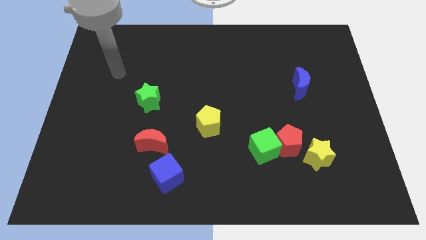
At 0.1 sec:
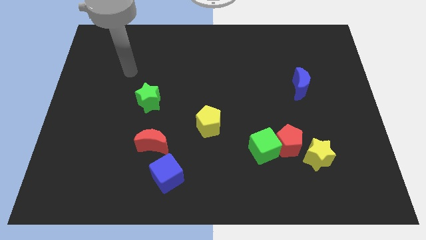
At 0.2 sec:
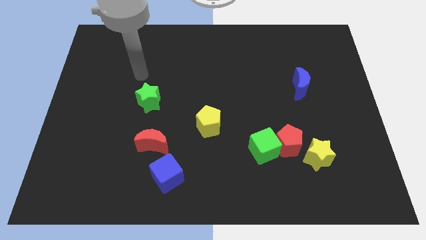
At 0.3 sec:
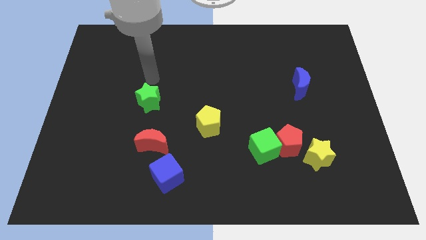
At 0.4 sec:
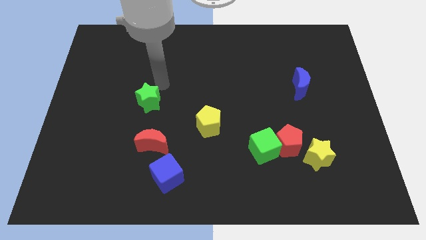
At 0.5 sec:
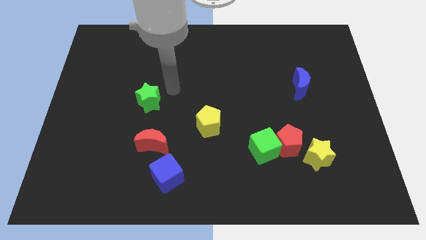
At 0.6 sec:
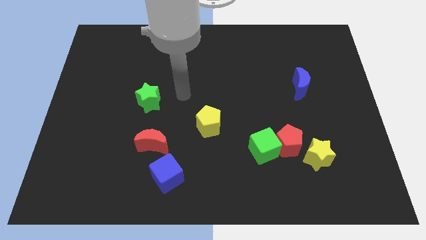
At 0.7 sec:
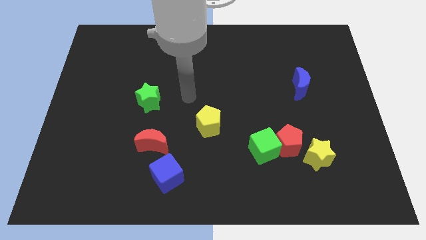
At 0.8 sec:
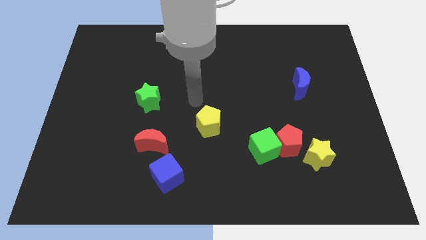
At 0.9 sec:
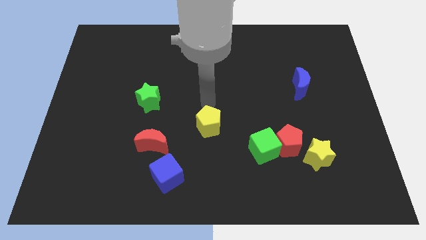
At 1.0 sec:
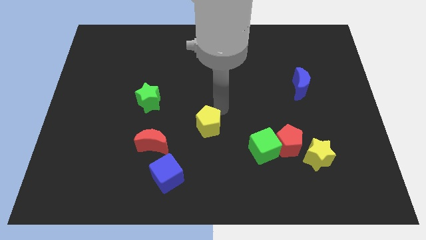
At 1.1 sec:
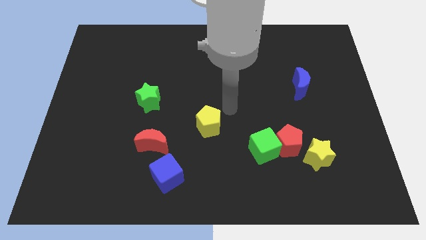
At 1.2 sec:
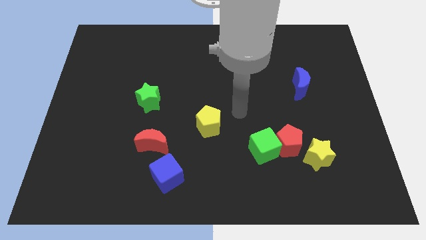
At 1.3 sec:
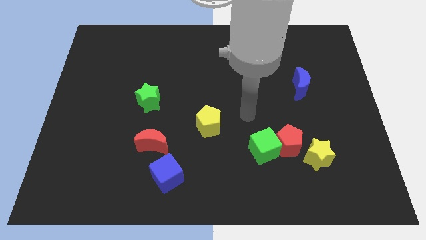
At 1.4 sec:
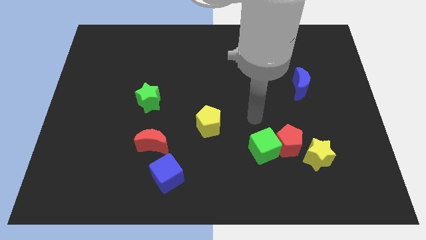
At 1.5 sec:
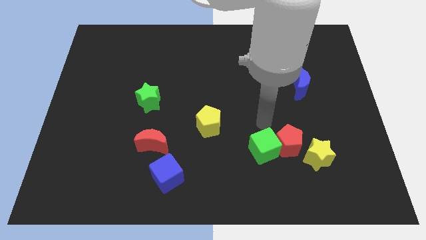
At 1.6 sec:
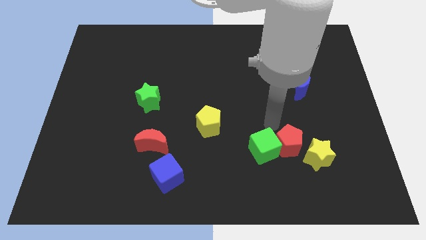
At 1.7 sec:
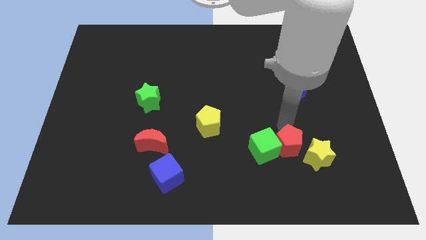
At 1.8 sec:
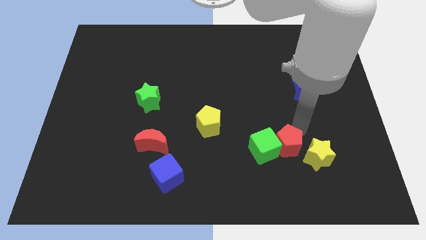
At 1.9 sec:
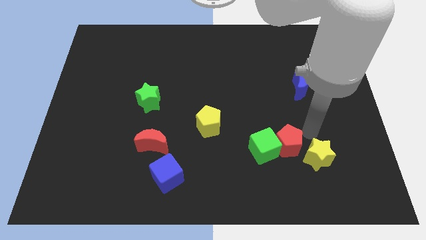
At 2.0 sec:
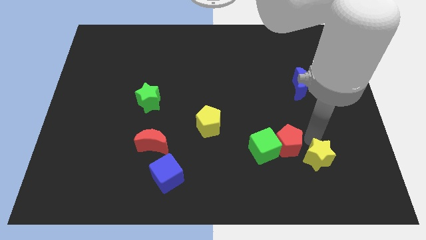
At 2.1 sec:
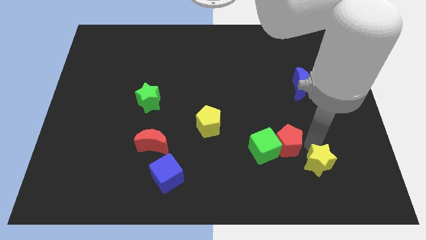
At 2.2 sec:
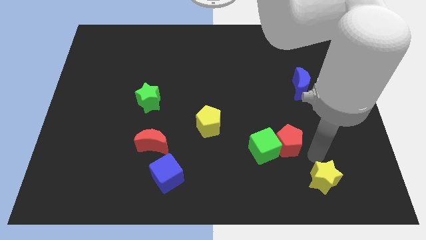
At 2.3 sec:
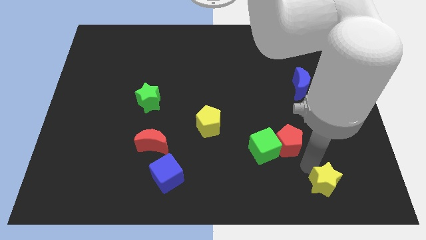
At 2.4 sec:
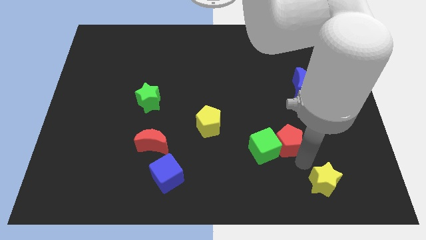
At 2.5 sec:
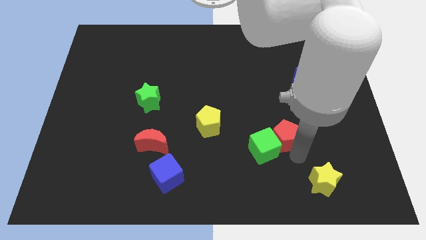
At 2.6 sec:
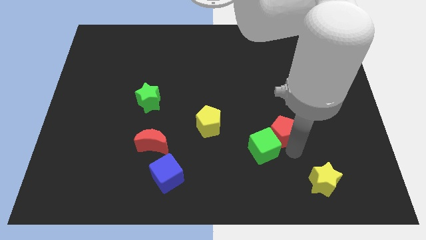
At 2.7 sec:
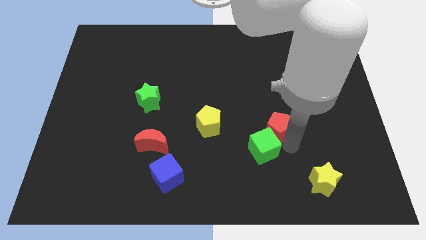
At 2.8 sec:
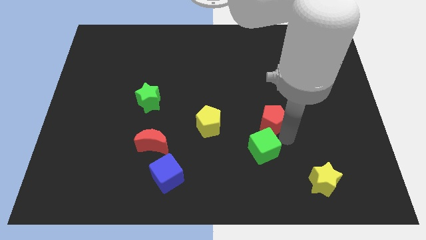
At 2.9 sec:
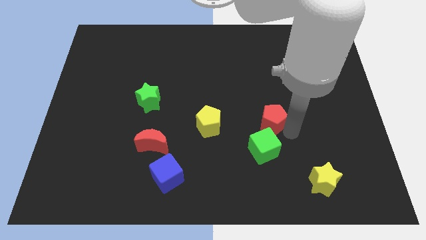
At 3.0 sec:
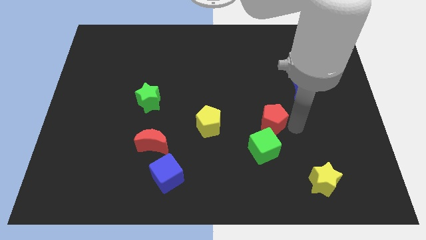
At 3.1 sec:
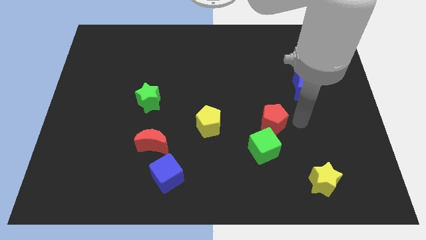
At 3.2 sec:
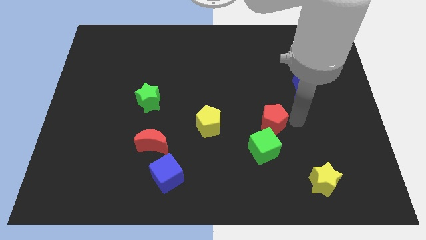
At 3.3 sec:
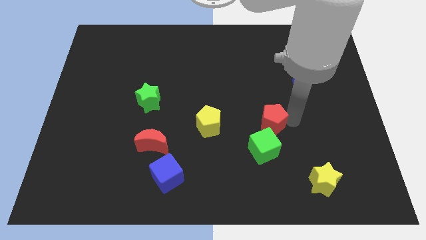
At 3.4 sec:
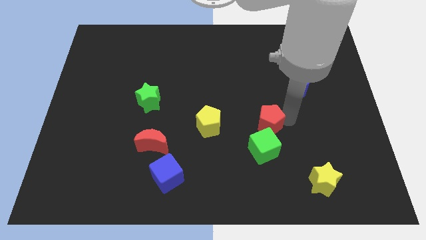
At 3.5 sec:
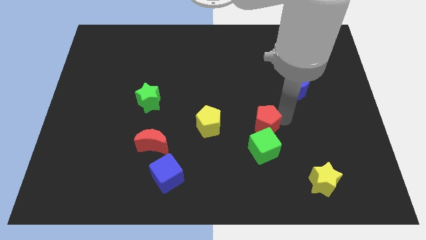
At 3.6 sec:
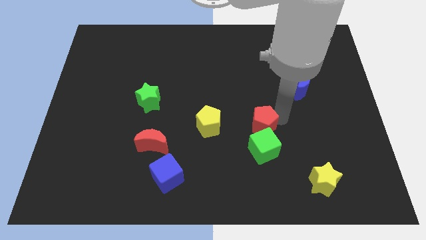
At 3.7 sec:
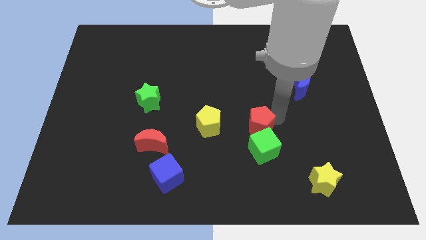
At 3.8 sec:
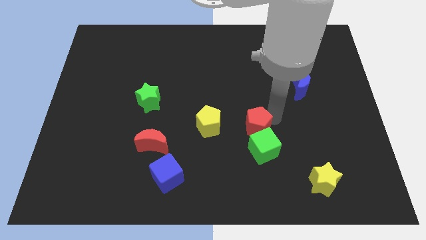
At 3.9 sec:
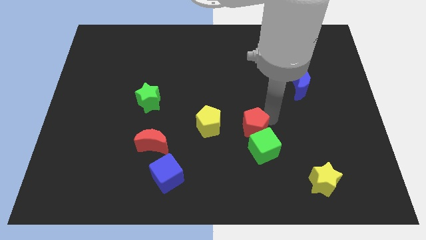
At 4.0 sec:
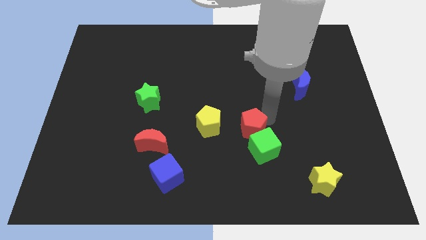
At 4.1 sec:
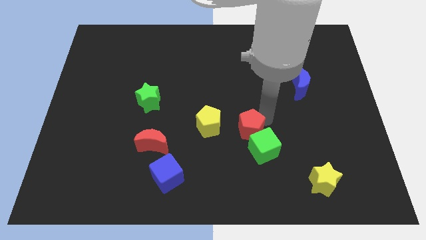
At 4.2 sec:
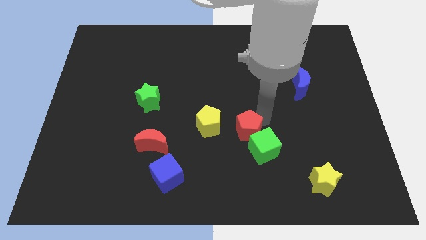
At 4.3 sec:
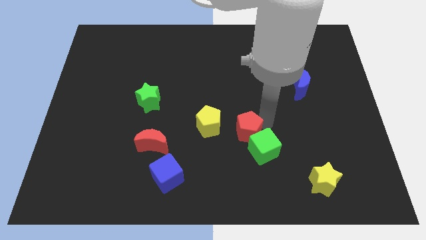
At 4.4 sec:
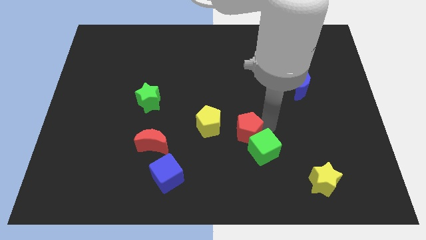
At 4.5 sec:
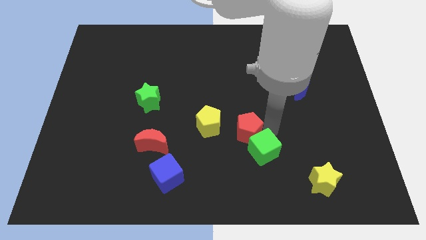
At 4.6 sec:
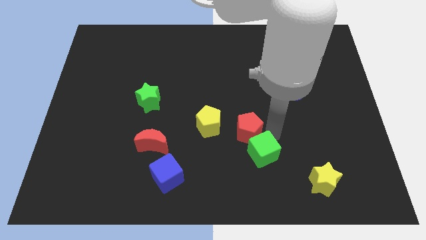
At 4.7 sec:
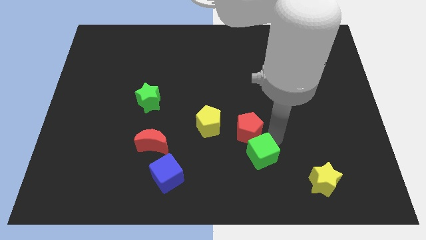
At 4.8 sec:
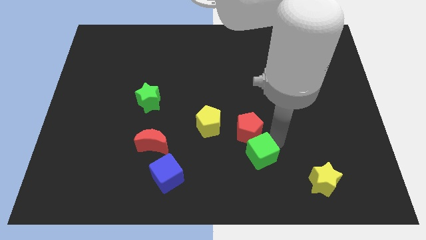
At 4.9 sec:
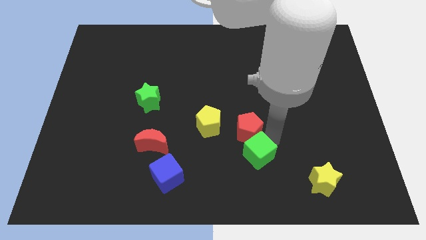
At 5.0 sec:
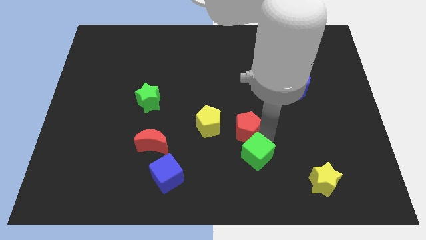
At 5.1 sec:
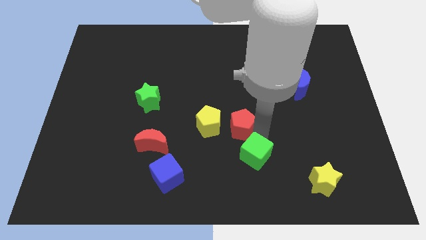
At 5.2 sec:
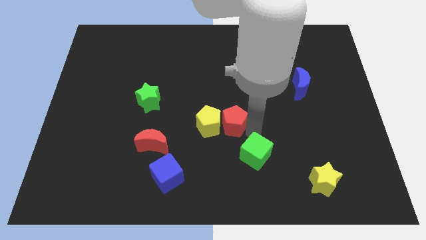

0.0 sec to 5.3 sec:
put the red pentagon next to the yellow pentagon

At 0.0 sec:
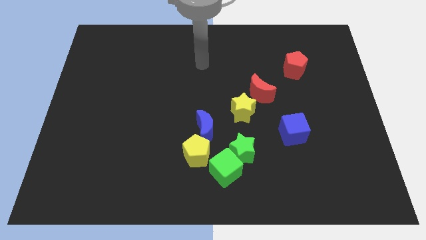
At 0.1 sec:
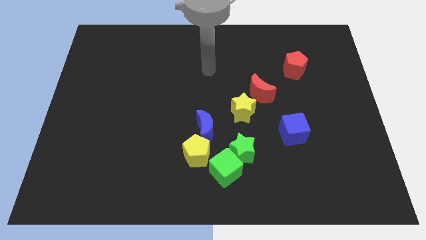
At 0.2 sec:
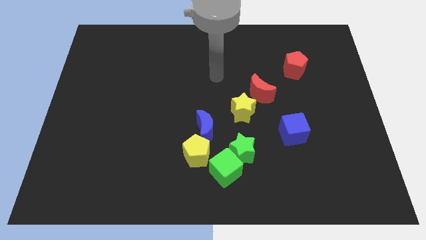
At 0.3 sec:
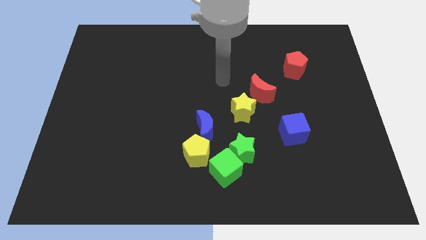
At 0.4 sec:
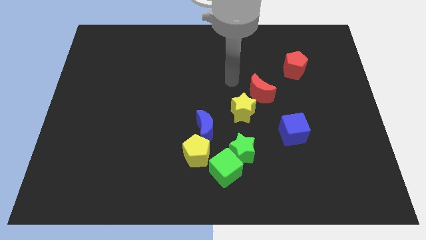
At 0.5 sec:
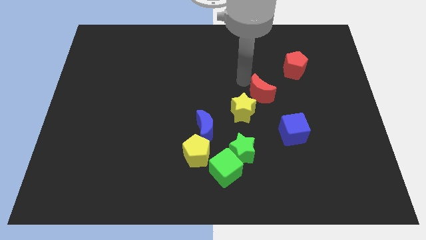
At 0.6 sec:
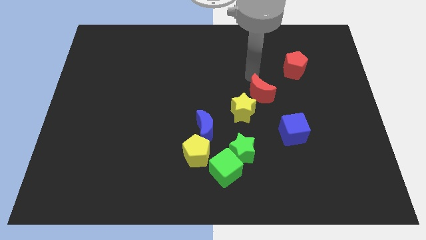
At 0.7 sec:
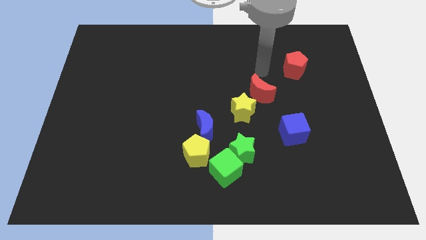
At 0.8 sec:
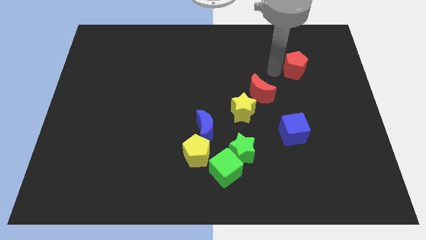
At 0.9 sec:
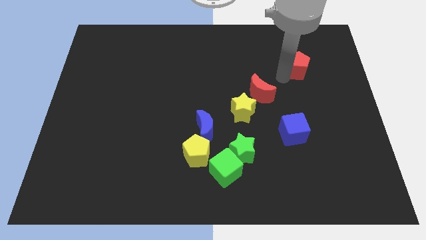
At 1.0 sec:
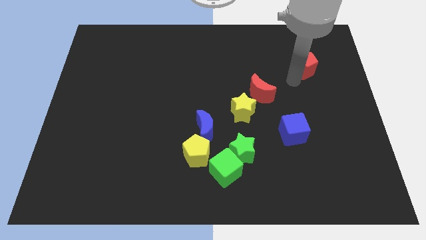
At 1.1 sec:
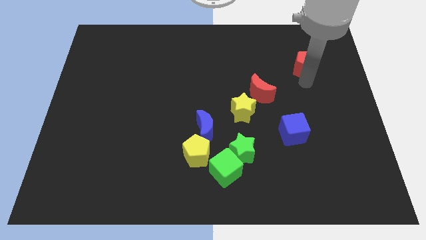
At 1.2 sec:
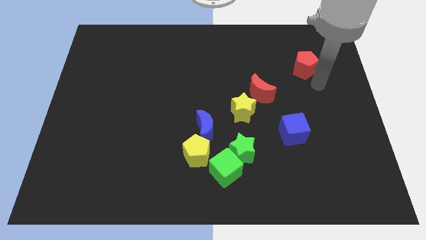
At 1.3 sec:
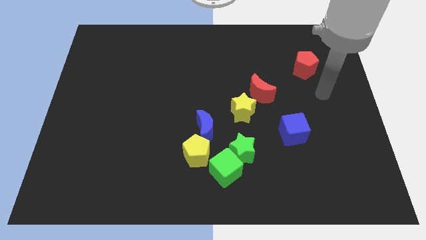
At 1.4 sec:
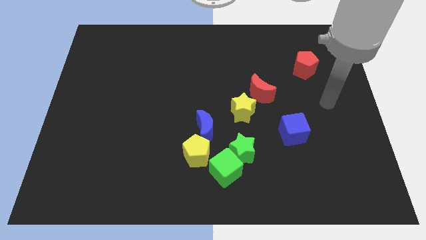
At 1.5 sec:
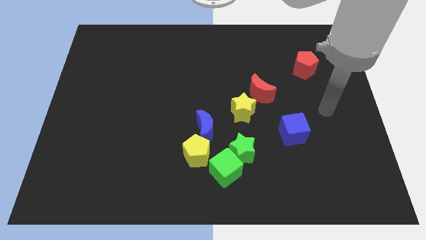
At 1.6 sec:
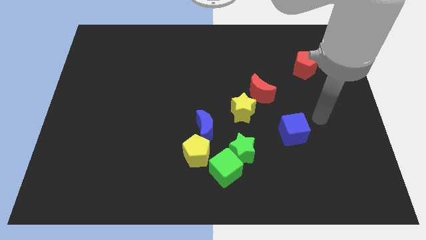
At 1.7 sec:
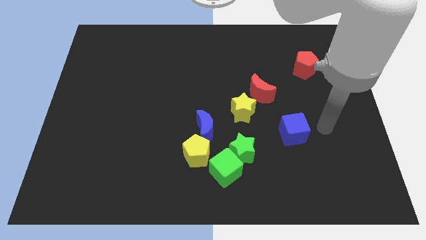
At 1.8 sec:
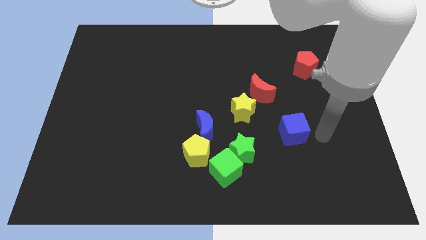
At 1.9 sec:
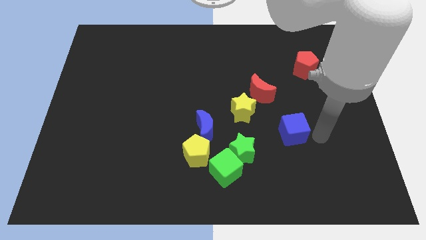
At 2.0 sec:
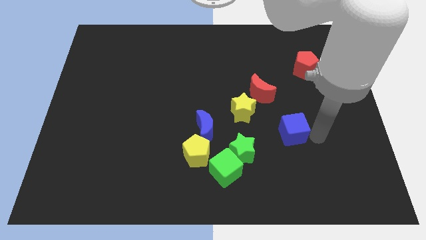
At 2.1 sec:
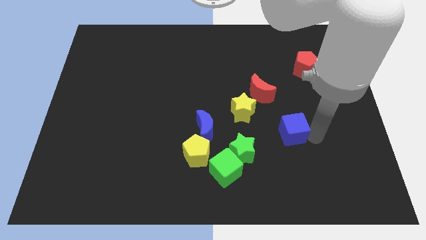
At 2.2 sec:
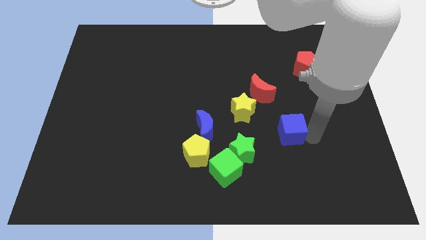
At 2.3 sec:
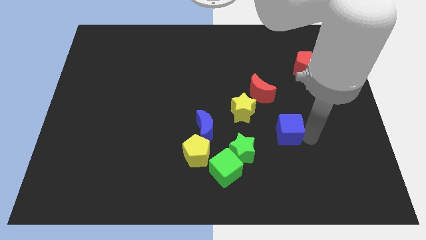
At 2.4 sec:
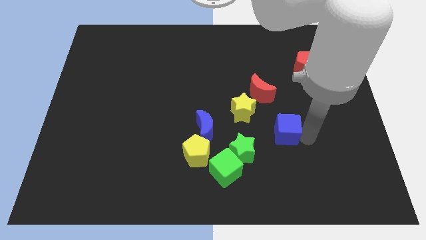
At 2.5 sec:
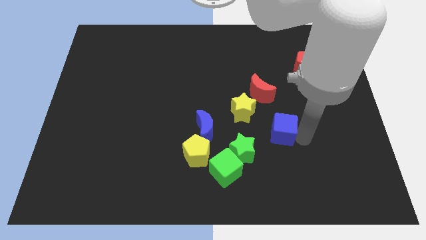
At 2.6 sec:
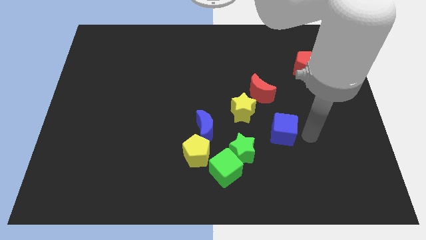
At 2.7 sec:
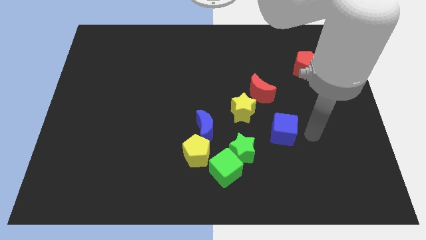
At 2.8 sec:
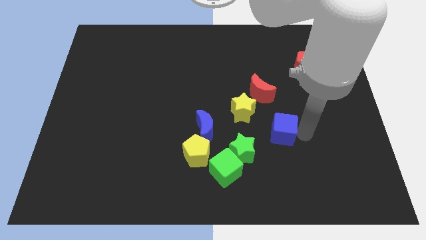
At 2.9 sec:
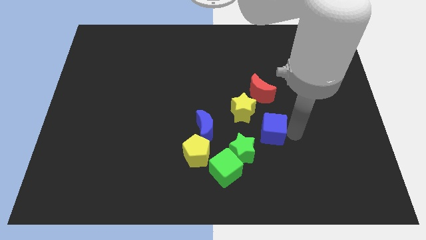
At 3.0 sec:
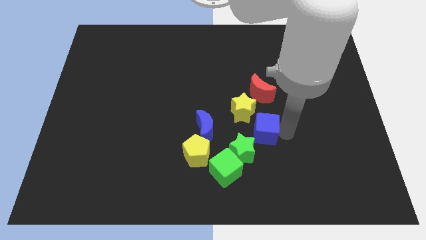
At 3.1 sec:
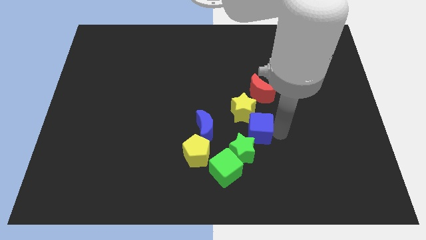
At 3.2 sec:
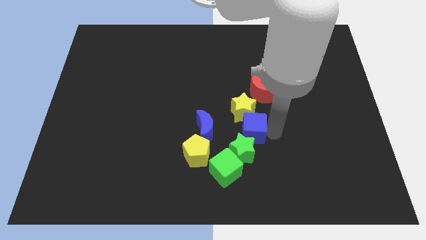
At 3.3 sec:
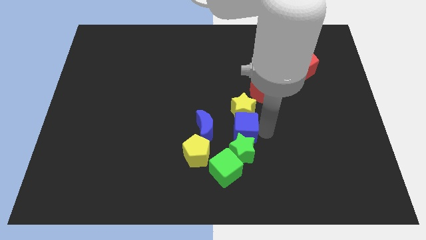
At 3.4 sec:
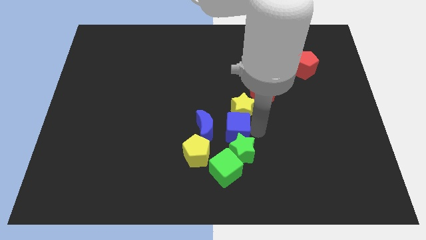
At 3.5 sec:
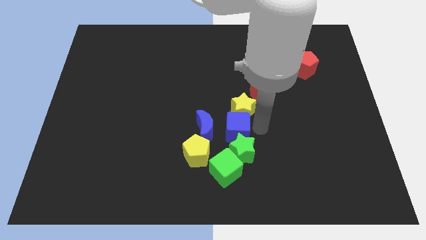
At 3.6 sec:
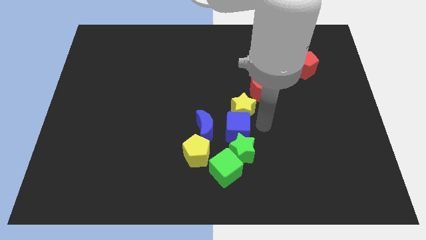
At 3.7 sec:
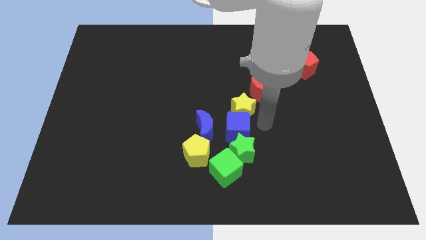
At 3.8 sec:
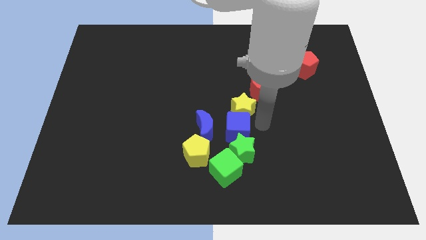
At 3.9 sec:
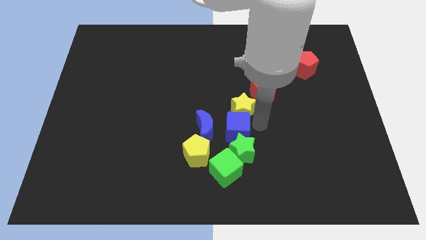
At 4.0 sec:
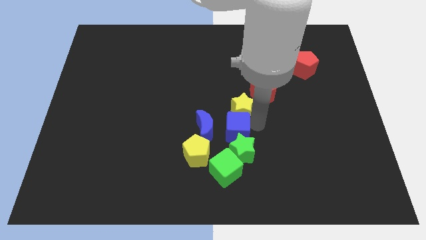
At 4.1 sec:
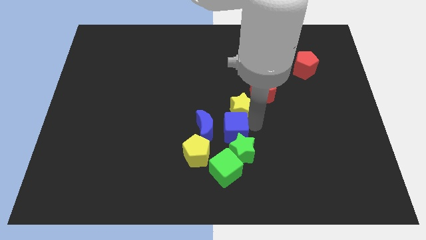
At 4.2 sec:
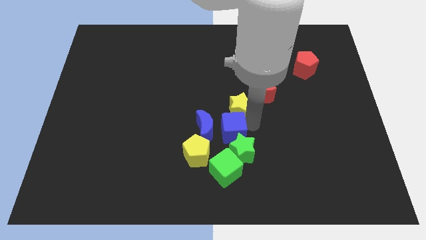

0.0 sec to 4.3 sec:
push the blue cube towards the blue moon
